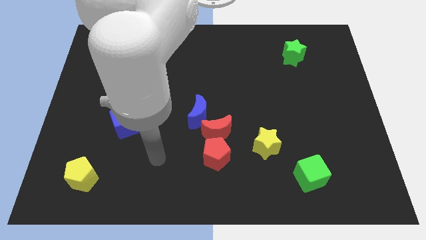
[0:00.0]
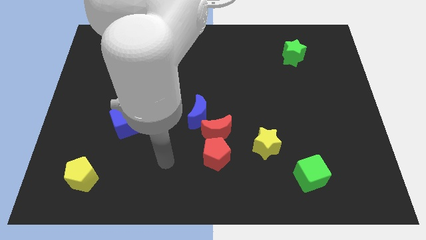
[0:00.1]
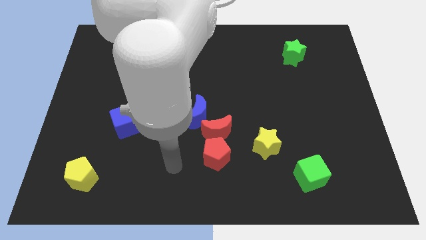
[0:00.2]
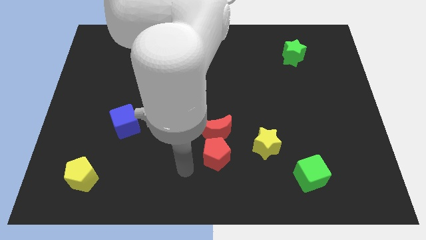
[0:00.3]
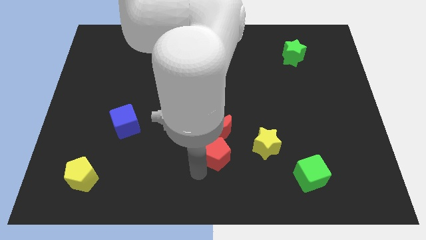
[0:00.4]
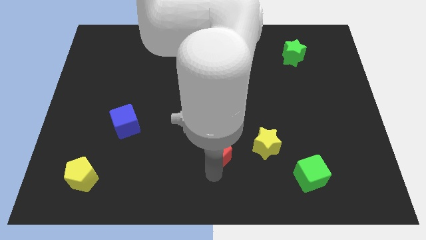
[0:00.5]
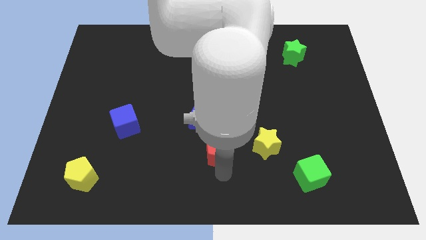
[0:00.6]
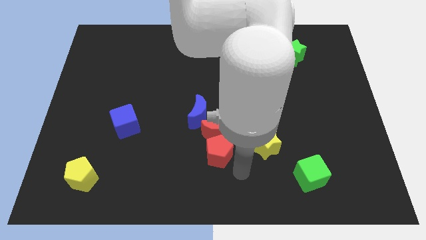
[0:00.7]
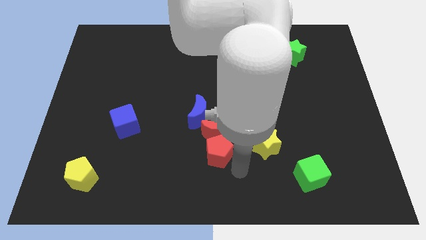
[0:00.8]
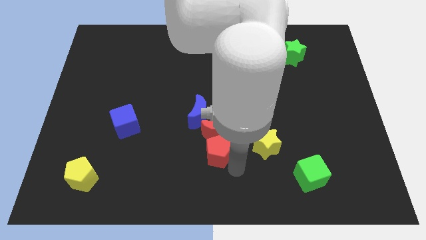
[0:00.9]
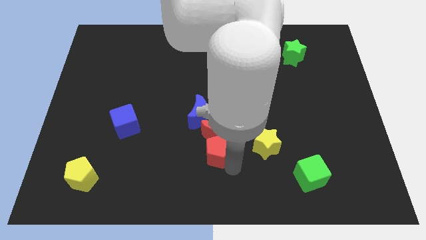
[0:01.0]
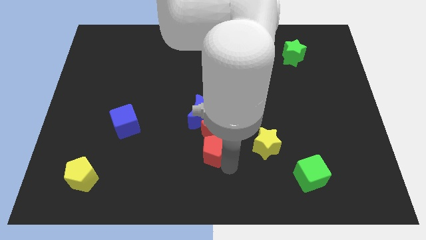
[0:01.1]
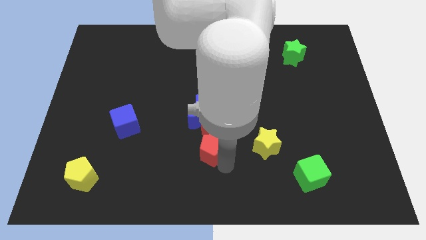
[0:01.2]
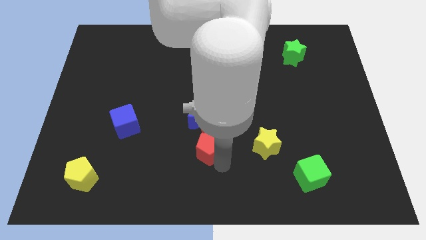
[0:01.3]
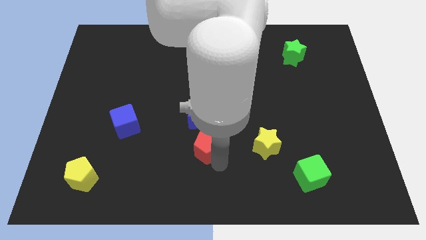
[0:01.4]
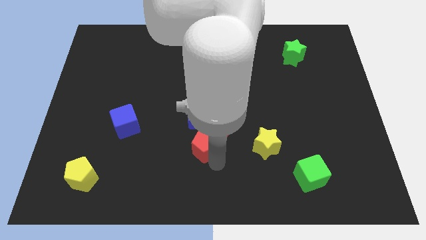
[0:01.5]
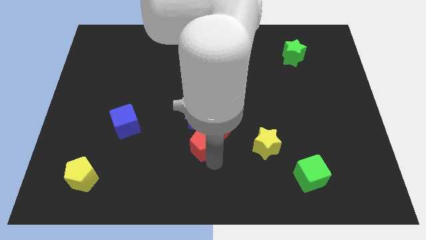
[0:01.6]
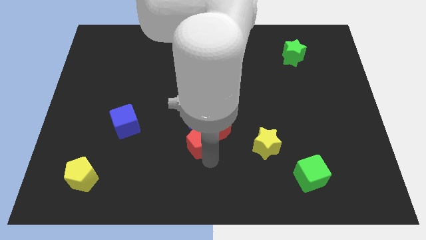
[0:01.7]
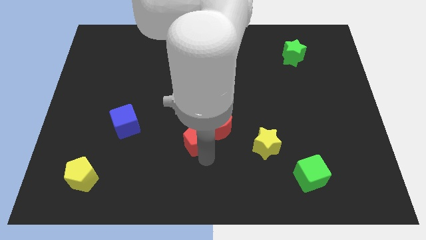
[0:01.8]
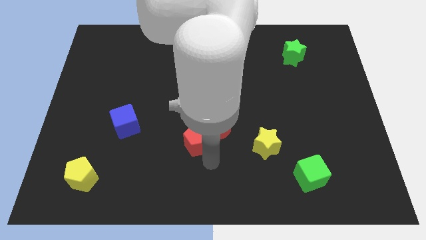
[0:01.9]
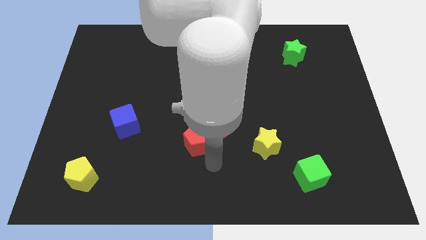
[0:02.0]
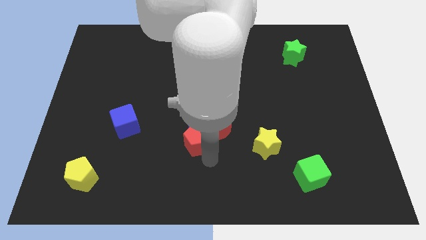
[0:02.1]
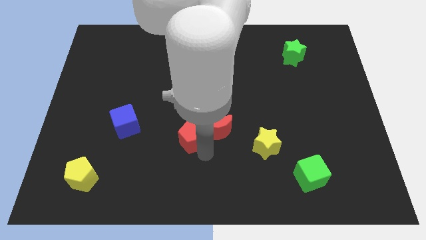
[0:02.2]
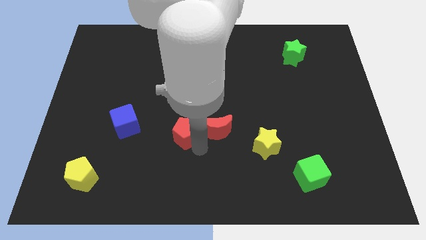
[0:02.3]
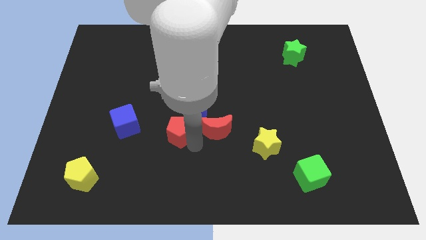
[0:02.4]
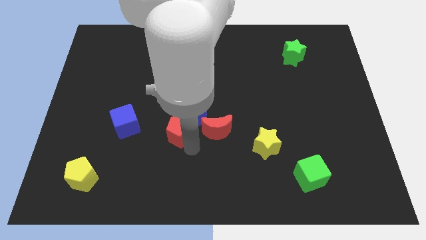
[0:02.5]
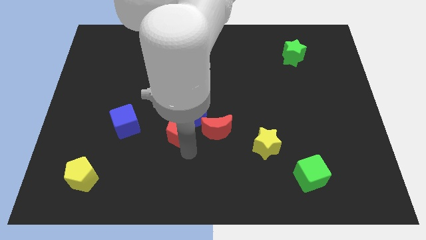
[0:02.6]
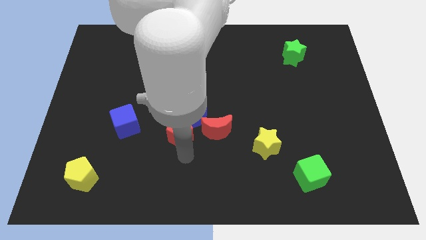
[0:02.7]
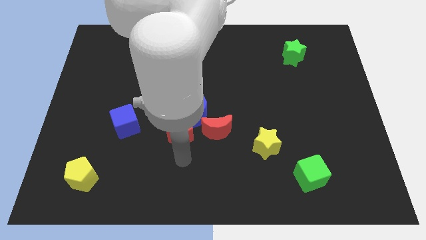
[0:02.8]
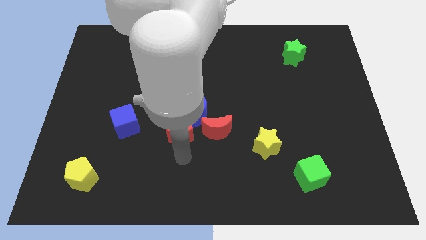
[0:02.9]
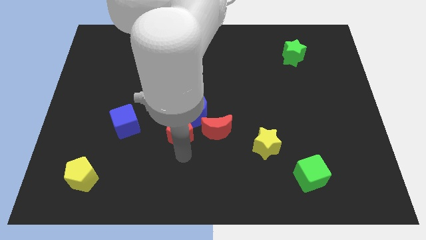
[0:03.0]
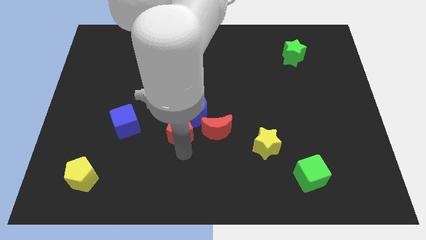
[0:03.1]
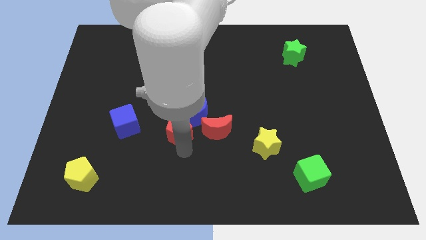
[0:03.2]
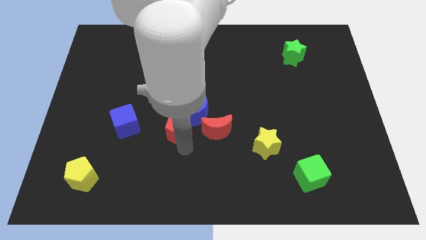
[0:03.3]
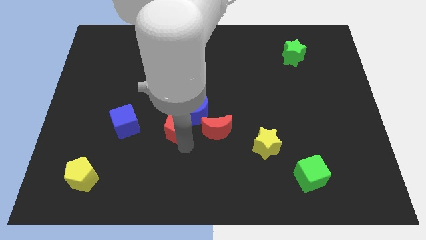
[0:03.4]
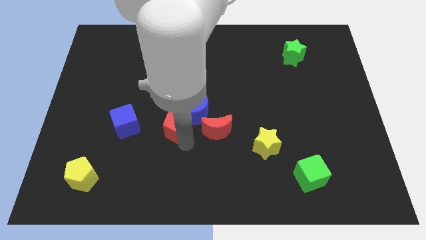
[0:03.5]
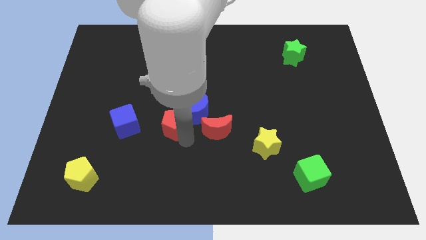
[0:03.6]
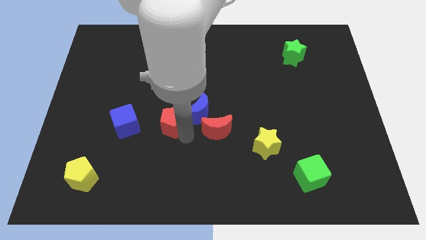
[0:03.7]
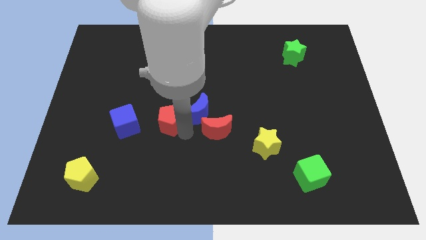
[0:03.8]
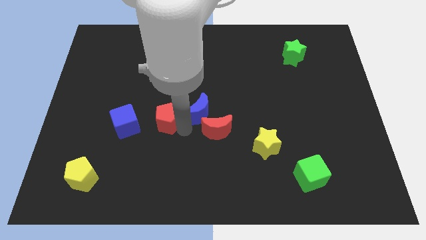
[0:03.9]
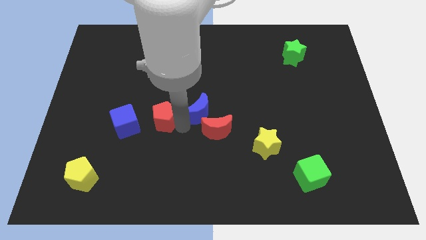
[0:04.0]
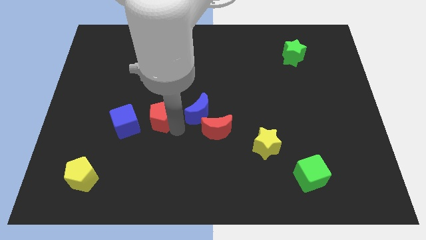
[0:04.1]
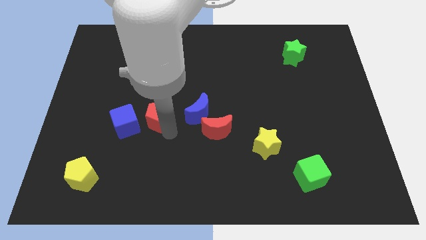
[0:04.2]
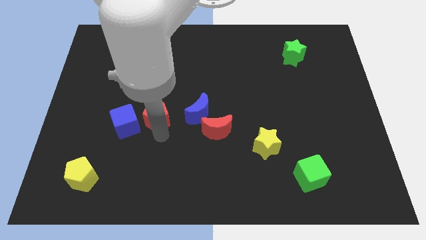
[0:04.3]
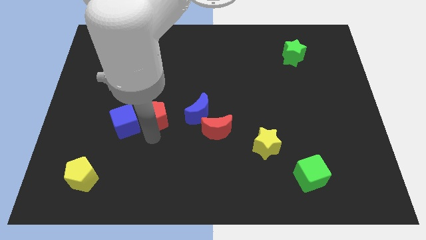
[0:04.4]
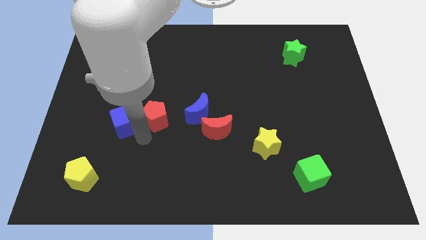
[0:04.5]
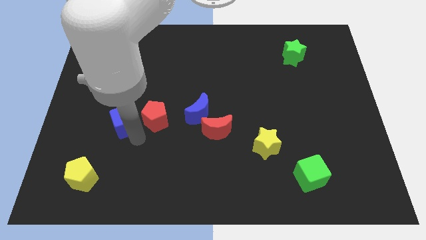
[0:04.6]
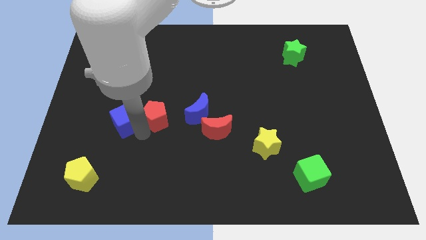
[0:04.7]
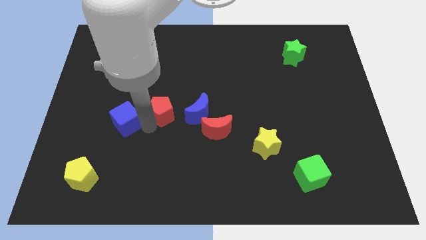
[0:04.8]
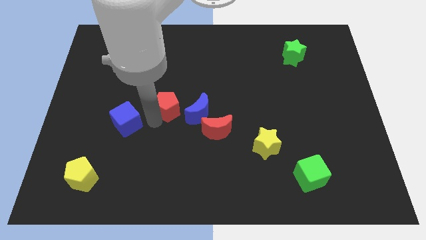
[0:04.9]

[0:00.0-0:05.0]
push the red pentagon to the top left side of the blue moon

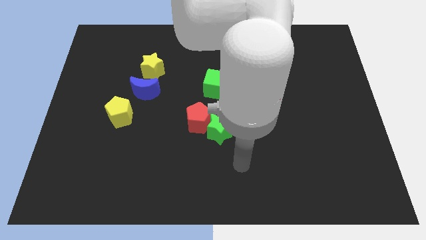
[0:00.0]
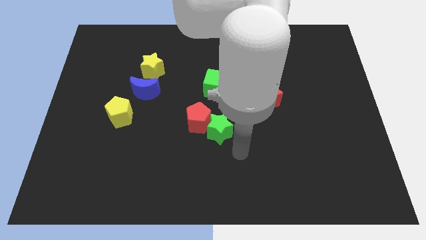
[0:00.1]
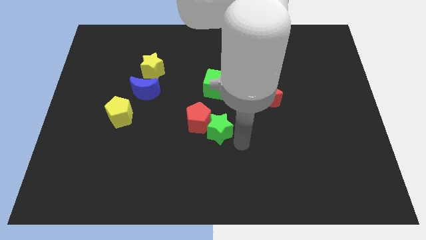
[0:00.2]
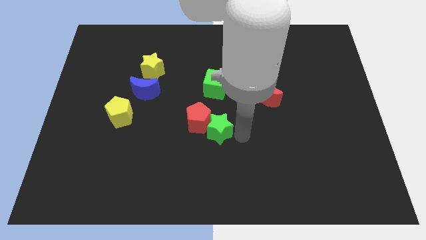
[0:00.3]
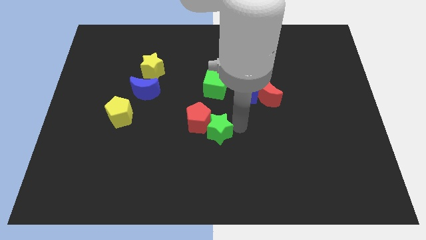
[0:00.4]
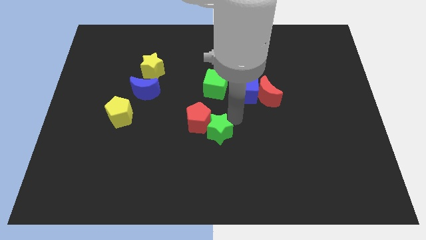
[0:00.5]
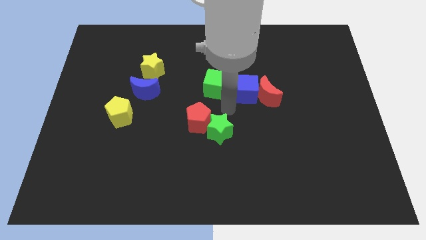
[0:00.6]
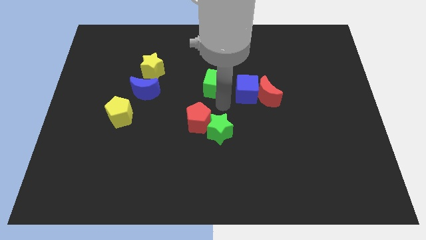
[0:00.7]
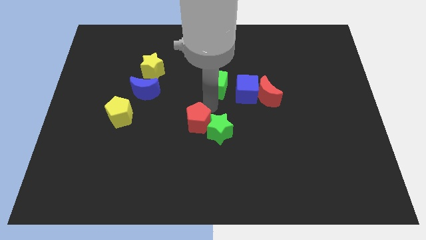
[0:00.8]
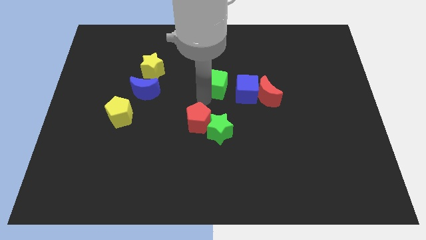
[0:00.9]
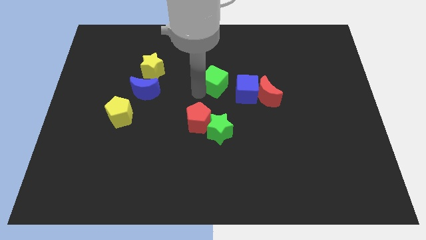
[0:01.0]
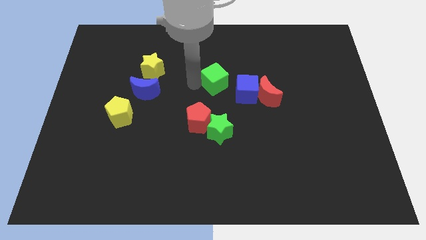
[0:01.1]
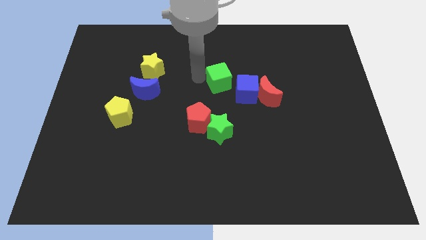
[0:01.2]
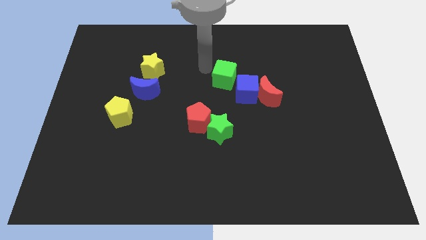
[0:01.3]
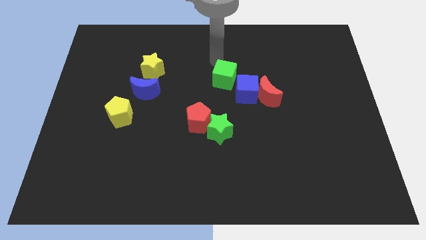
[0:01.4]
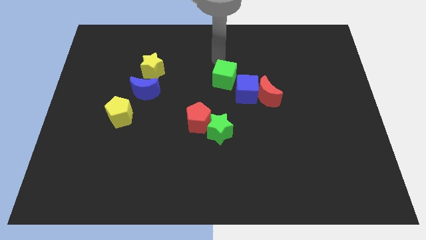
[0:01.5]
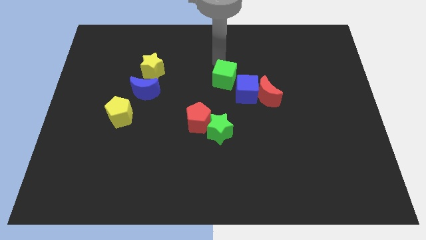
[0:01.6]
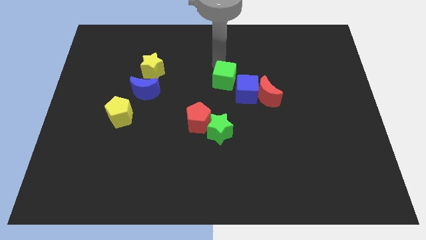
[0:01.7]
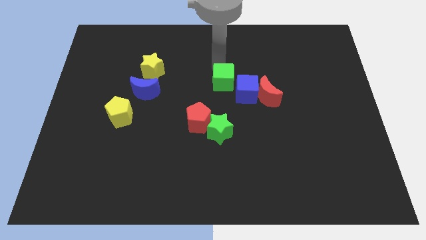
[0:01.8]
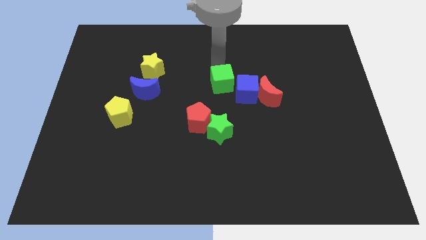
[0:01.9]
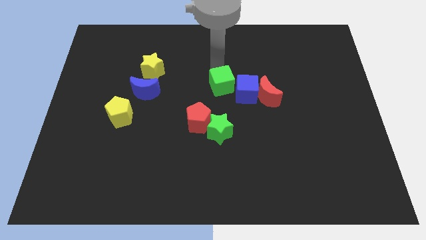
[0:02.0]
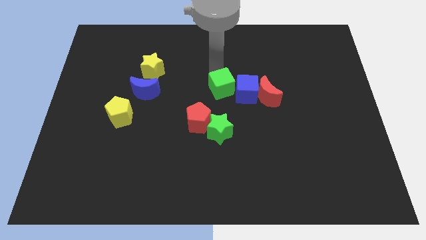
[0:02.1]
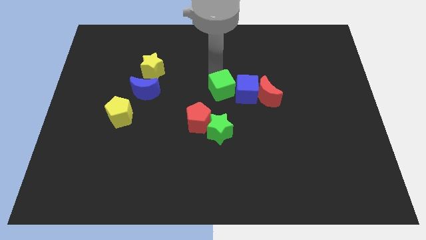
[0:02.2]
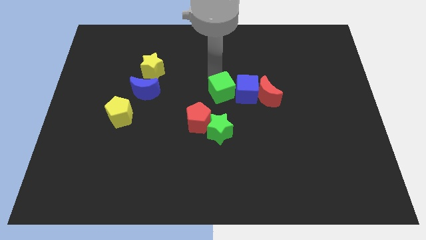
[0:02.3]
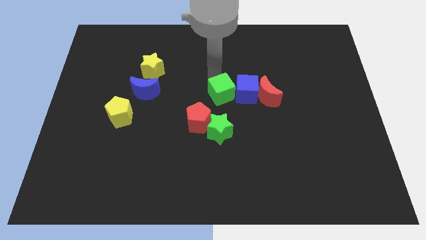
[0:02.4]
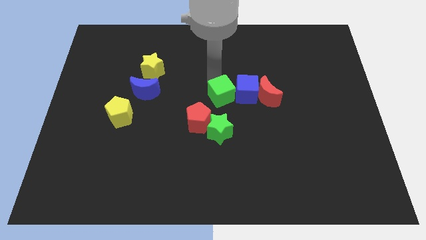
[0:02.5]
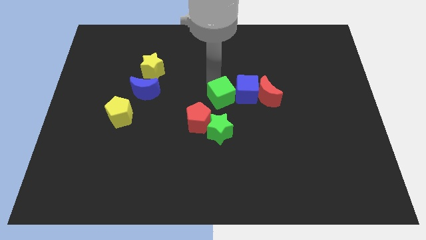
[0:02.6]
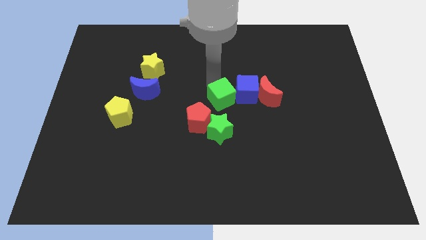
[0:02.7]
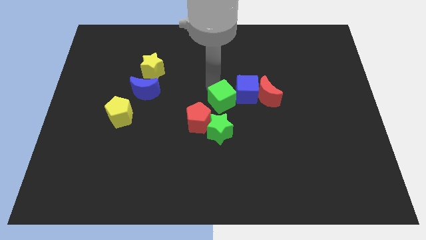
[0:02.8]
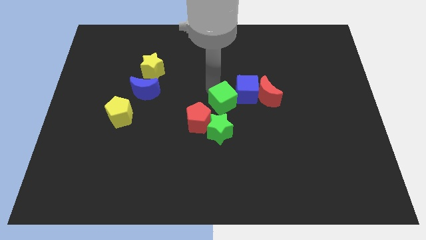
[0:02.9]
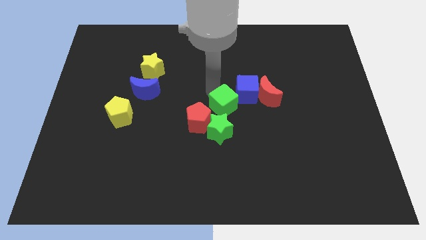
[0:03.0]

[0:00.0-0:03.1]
put the green cube diagonally up and to the right of the green star

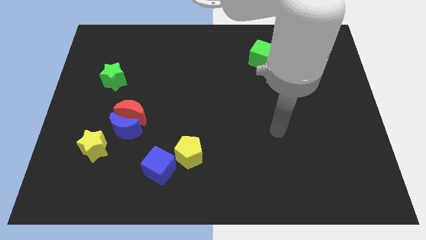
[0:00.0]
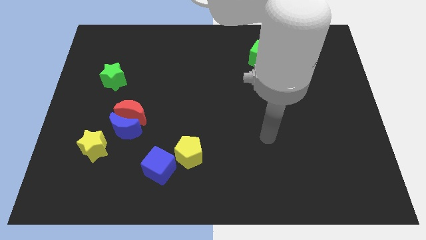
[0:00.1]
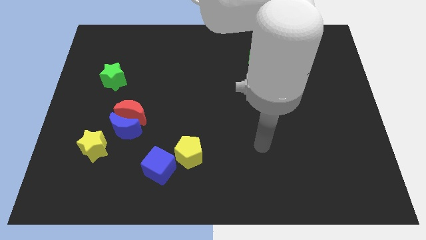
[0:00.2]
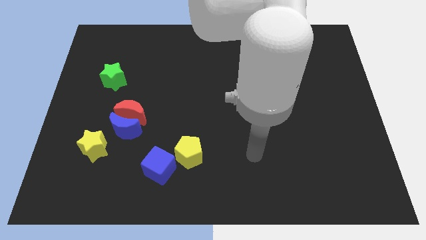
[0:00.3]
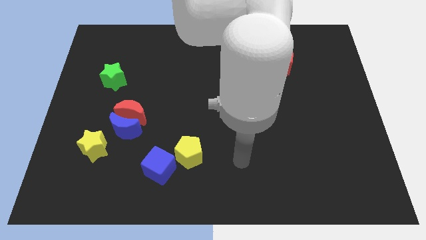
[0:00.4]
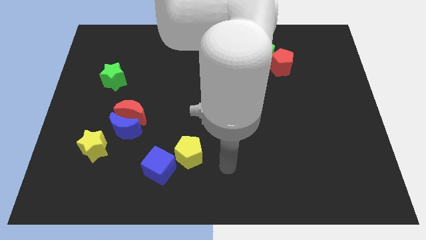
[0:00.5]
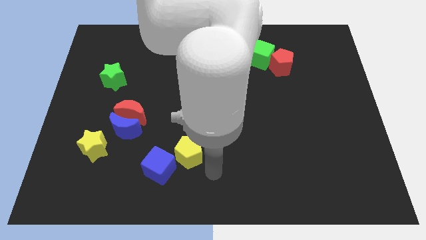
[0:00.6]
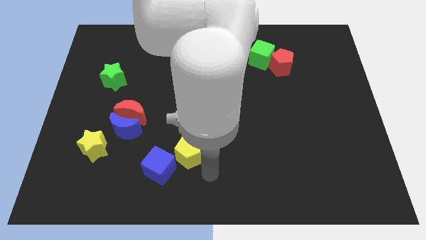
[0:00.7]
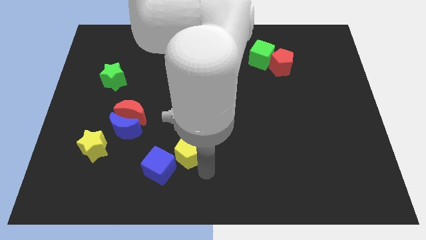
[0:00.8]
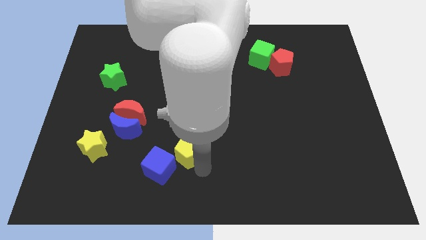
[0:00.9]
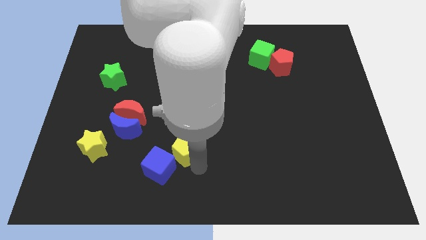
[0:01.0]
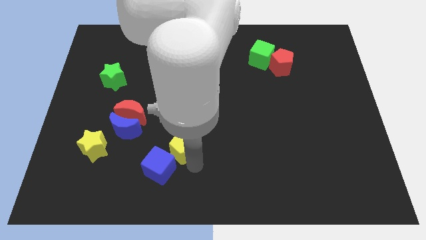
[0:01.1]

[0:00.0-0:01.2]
put the yellow pentagon to the top side of the blue cube
